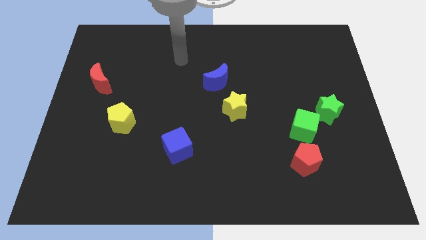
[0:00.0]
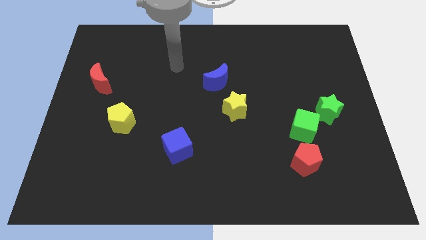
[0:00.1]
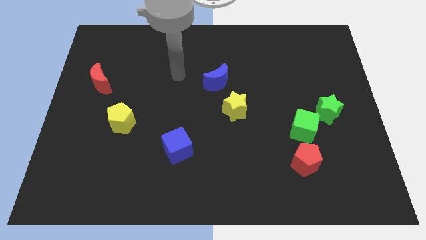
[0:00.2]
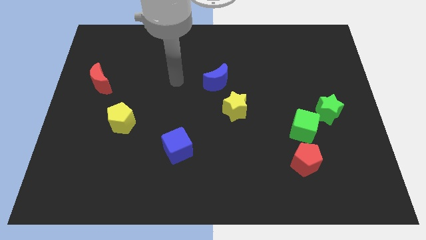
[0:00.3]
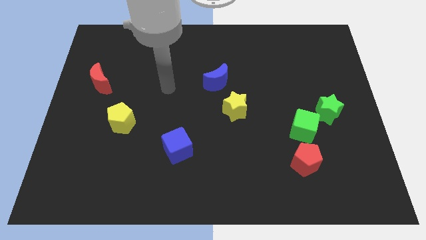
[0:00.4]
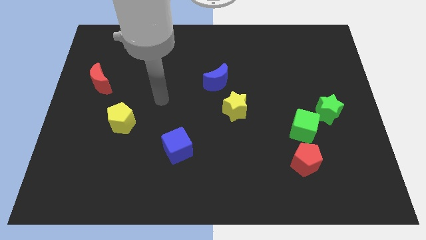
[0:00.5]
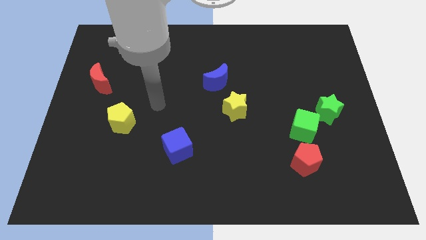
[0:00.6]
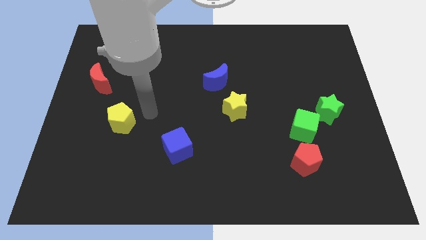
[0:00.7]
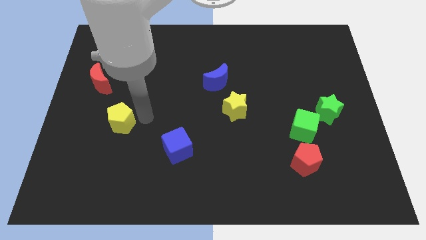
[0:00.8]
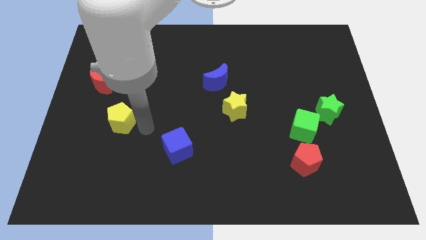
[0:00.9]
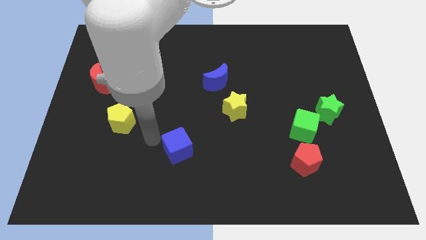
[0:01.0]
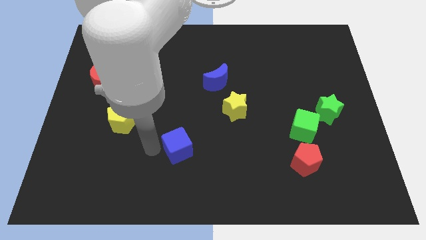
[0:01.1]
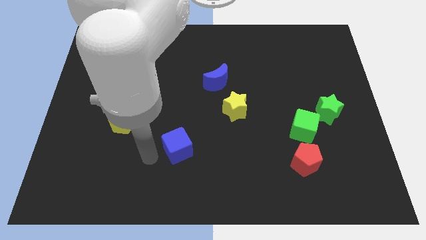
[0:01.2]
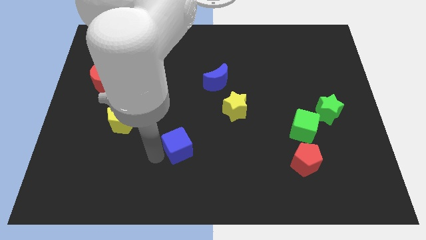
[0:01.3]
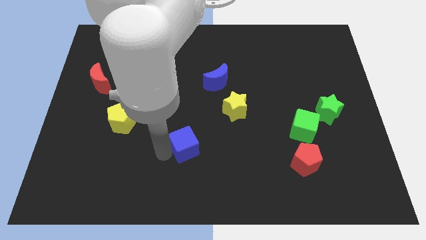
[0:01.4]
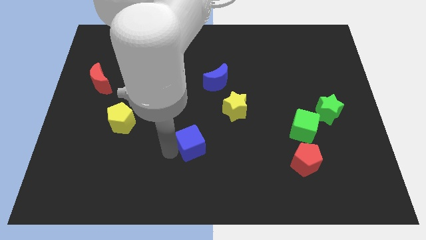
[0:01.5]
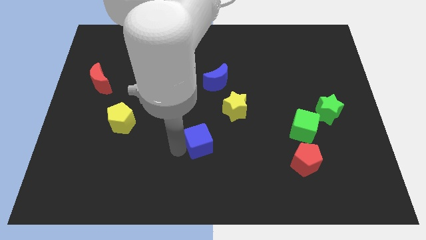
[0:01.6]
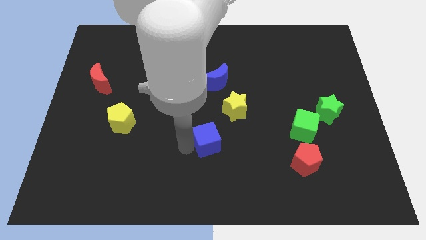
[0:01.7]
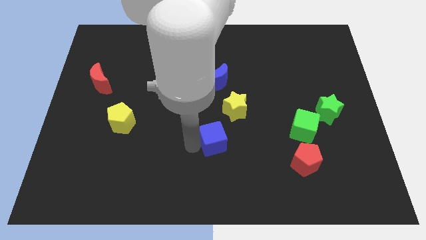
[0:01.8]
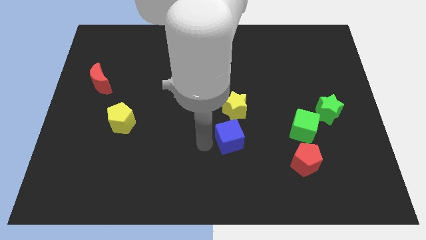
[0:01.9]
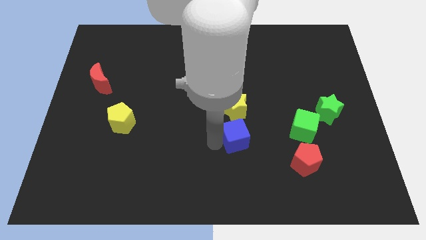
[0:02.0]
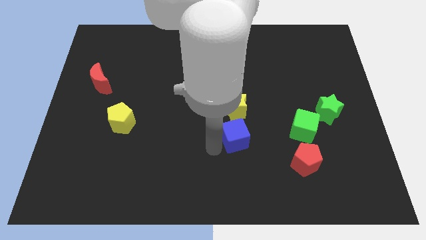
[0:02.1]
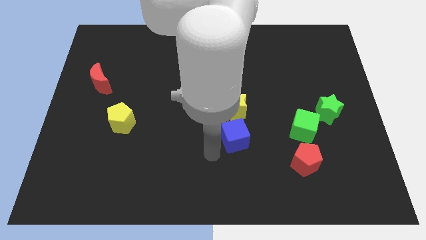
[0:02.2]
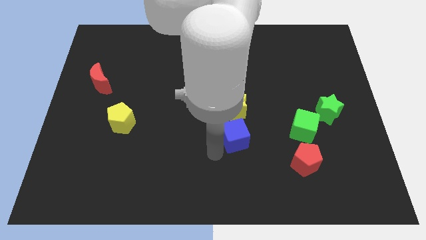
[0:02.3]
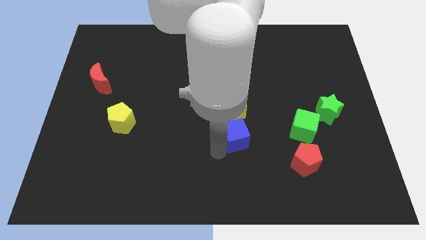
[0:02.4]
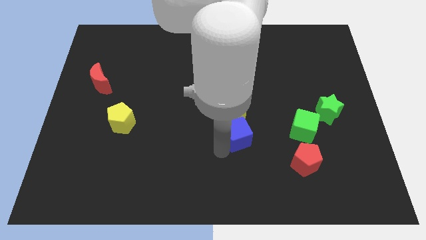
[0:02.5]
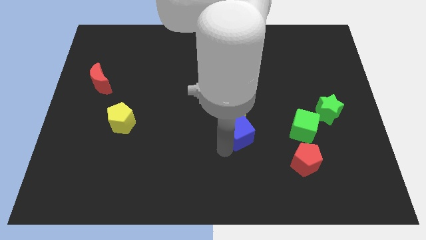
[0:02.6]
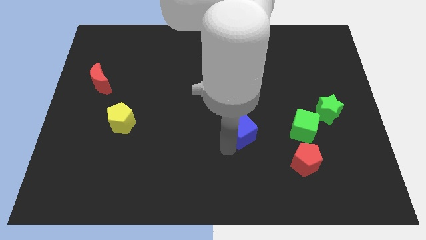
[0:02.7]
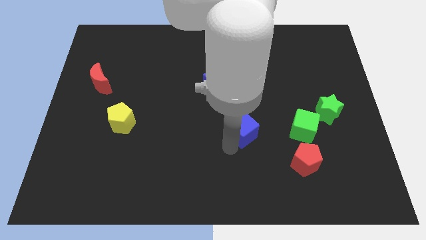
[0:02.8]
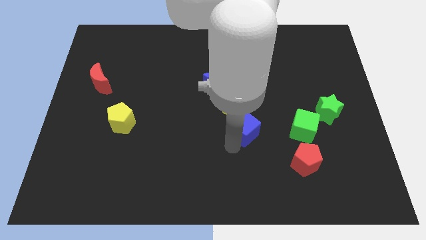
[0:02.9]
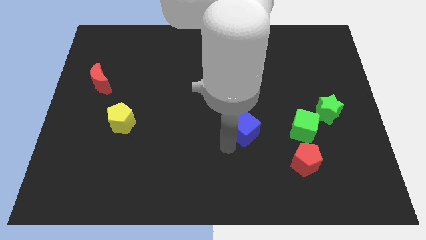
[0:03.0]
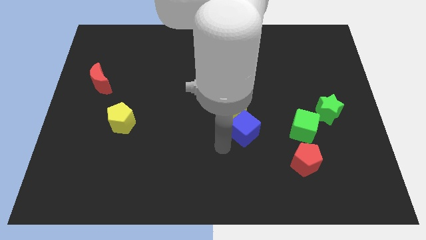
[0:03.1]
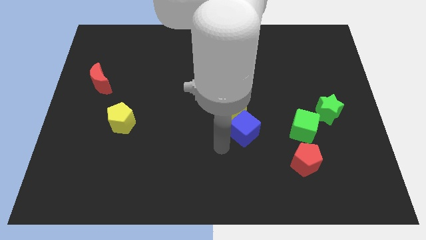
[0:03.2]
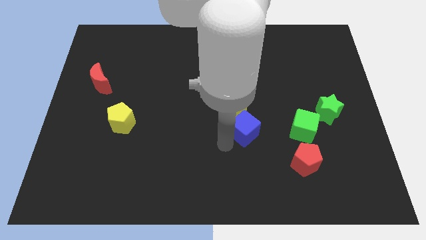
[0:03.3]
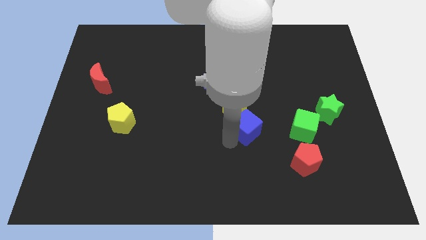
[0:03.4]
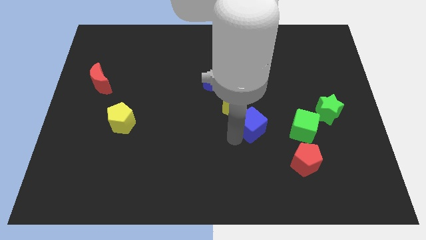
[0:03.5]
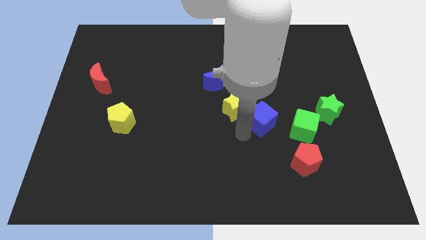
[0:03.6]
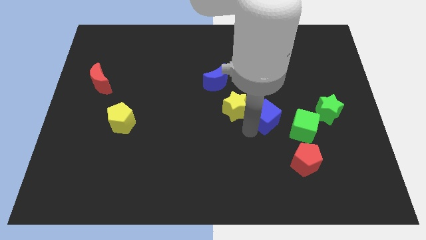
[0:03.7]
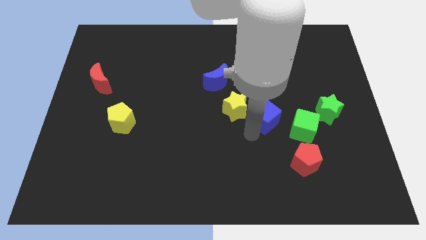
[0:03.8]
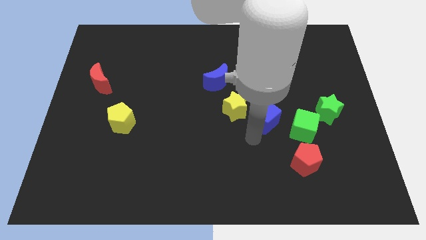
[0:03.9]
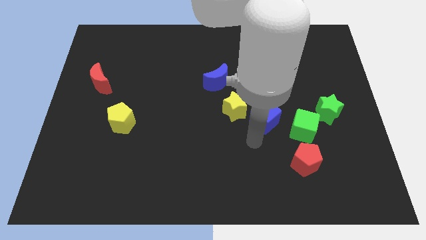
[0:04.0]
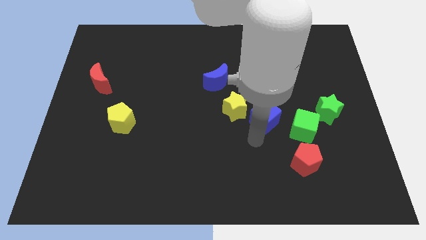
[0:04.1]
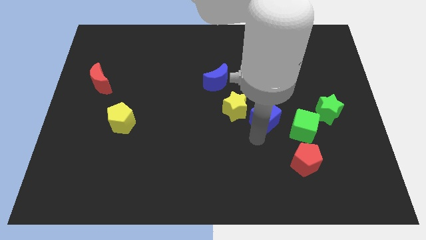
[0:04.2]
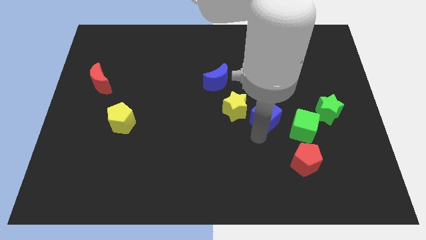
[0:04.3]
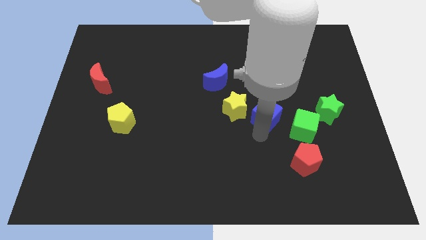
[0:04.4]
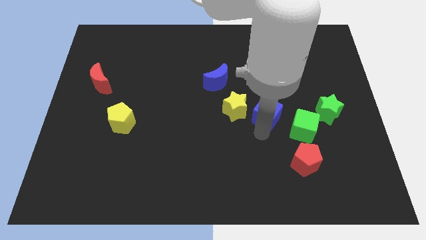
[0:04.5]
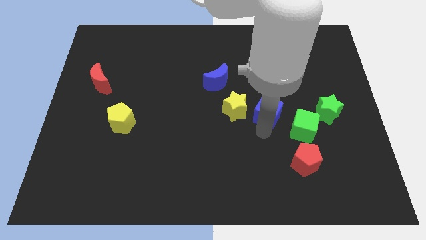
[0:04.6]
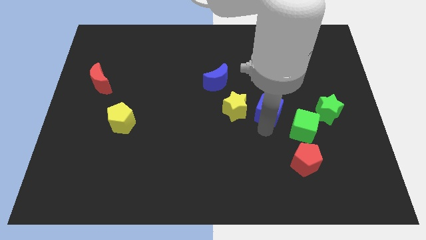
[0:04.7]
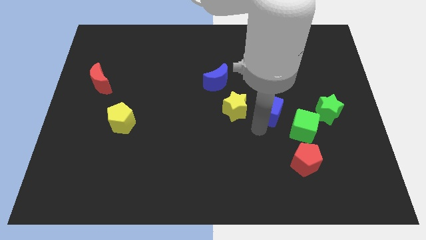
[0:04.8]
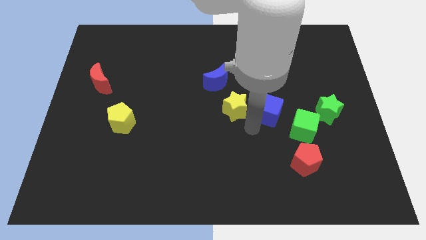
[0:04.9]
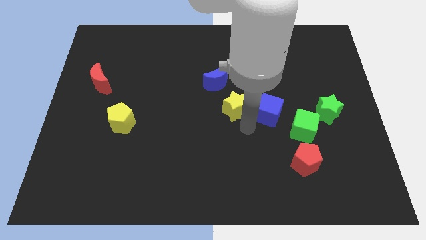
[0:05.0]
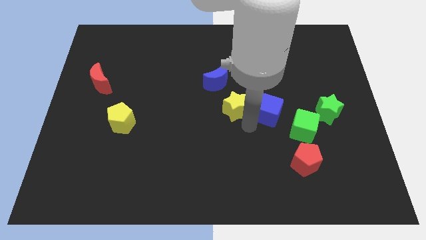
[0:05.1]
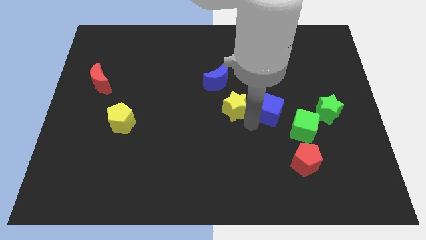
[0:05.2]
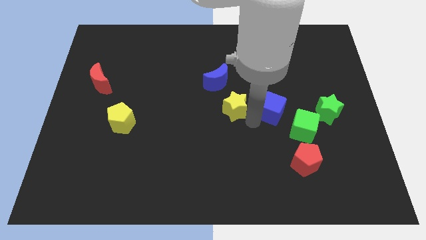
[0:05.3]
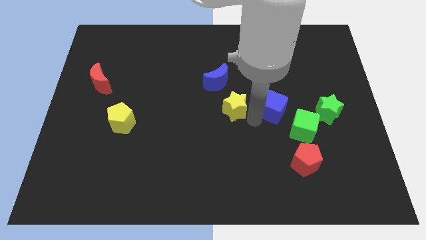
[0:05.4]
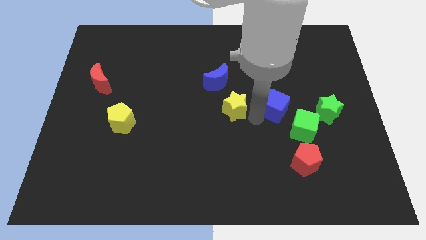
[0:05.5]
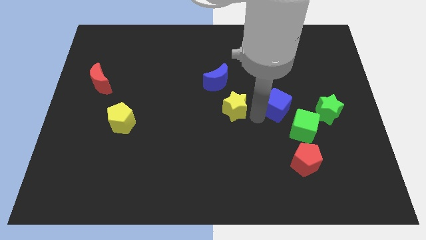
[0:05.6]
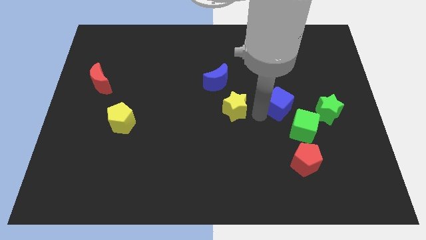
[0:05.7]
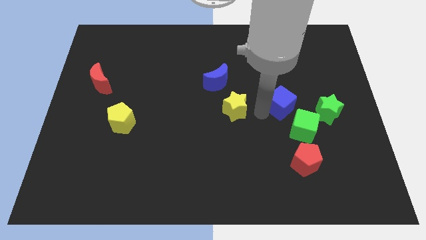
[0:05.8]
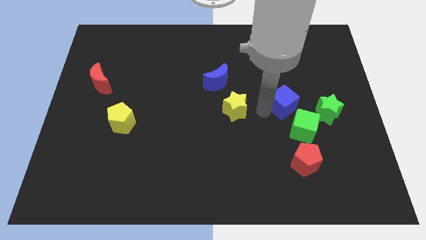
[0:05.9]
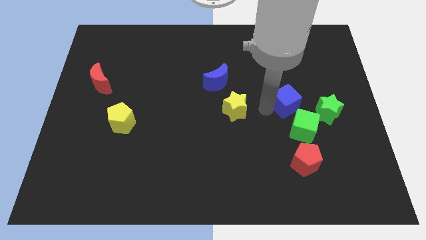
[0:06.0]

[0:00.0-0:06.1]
push the blue cube to the top left side of the green star

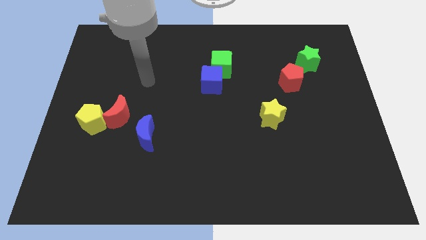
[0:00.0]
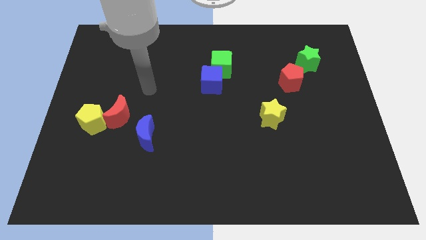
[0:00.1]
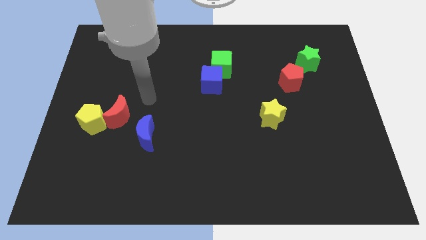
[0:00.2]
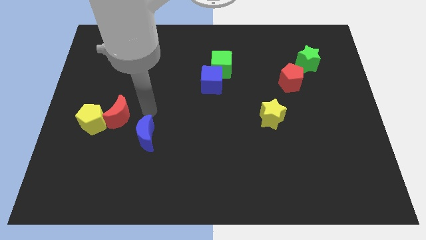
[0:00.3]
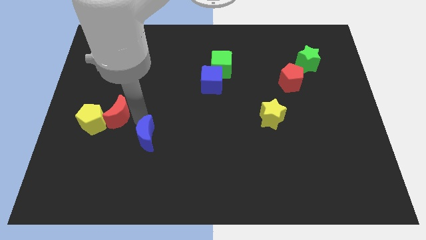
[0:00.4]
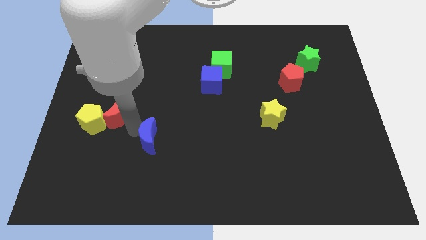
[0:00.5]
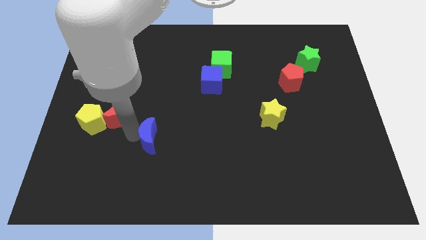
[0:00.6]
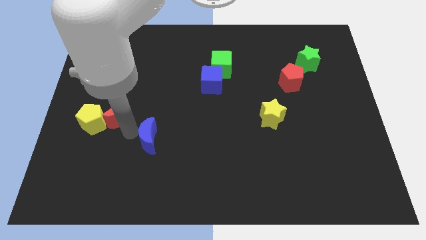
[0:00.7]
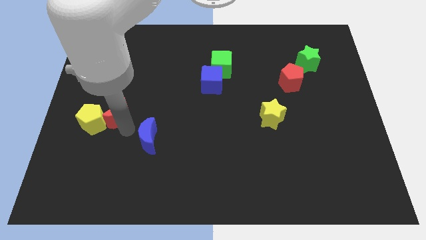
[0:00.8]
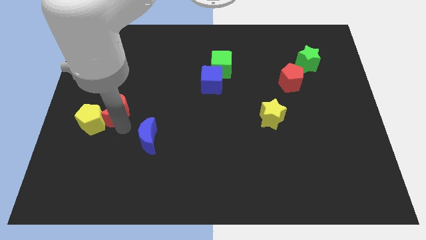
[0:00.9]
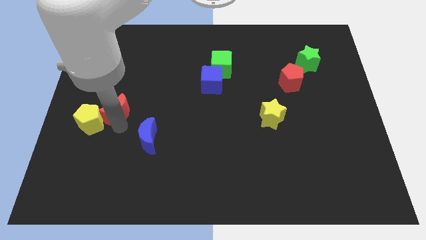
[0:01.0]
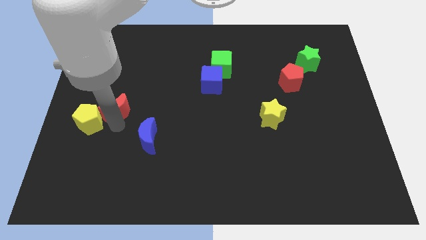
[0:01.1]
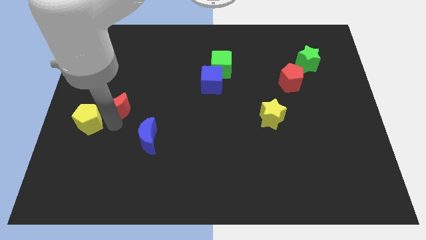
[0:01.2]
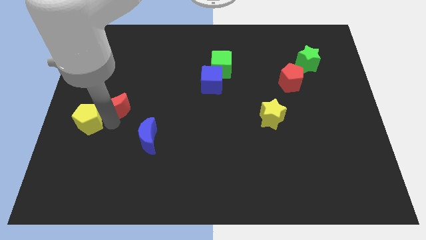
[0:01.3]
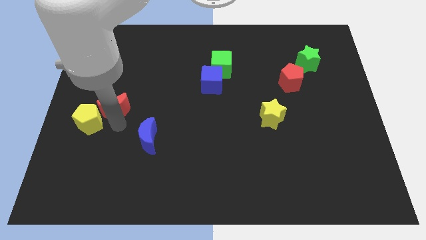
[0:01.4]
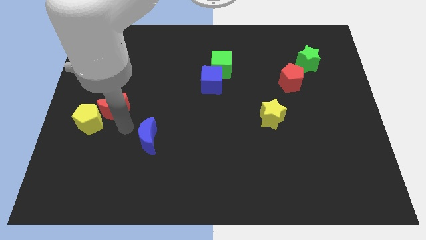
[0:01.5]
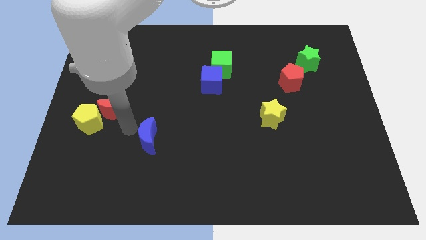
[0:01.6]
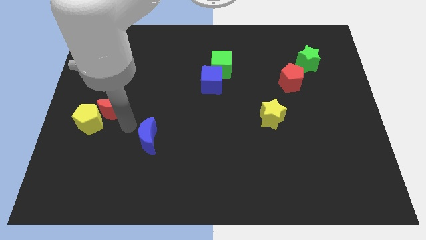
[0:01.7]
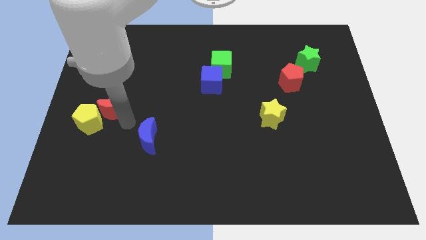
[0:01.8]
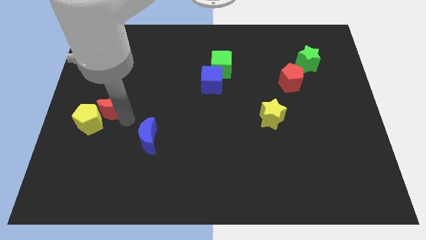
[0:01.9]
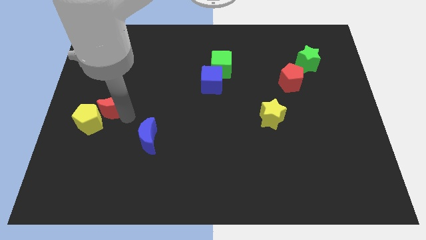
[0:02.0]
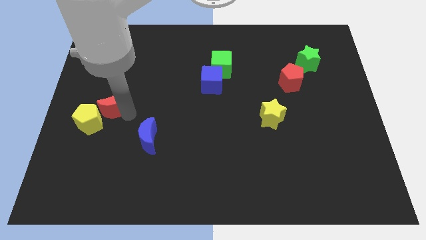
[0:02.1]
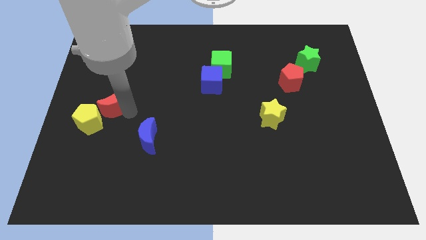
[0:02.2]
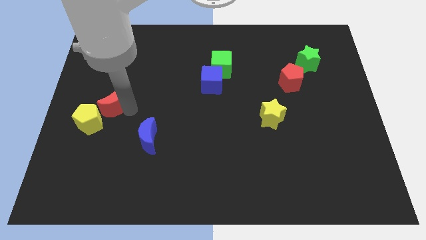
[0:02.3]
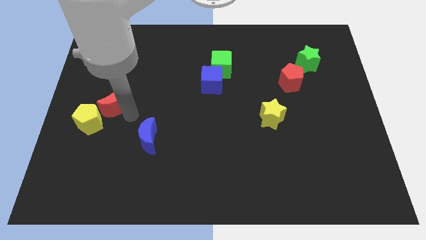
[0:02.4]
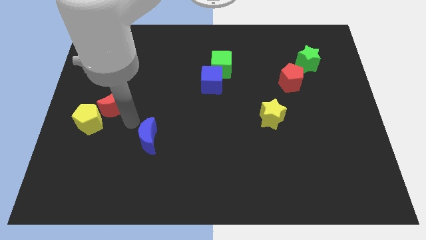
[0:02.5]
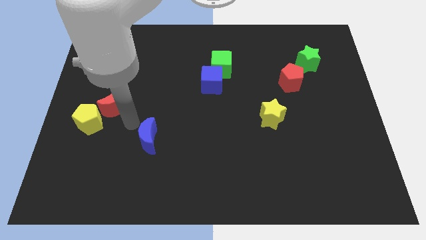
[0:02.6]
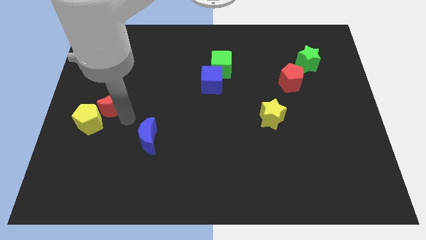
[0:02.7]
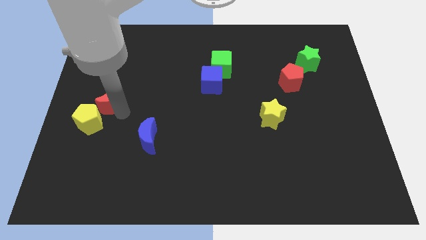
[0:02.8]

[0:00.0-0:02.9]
slide the red moon to the top side of the yellow pentagon
